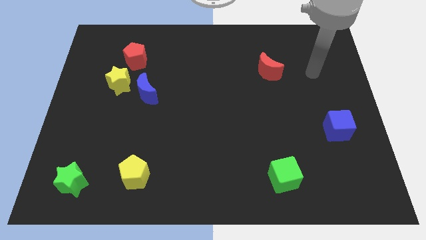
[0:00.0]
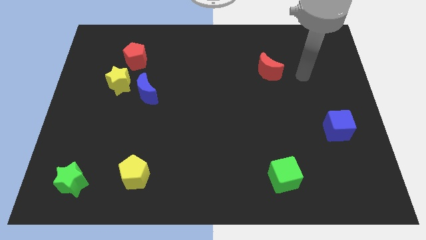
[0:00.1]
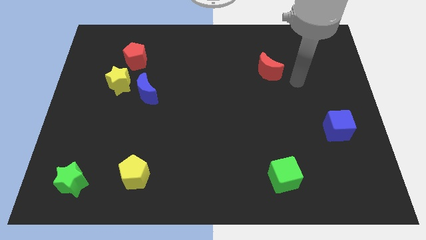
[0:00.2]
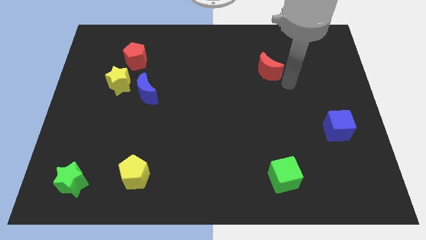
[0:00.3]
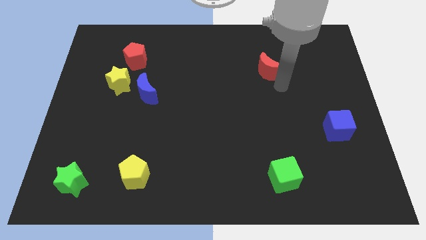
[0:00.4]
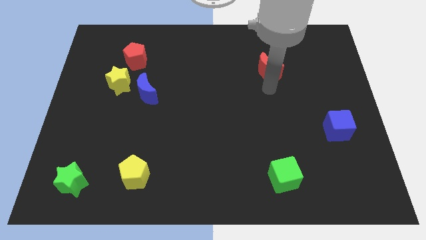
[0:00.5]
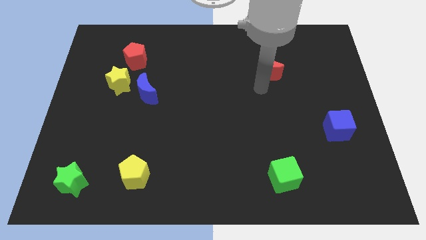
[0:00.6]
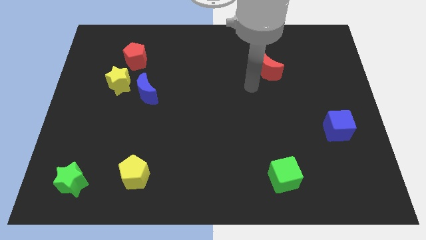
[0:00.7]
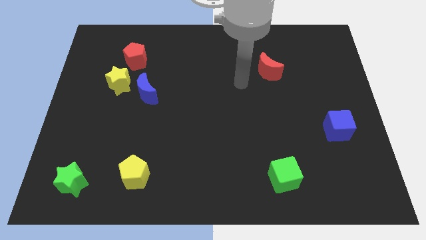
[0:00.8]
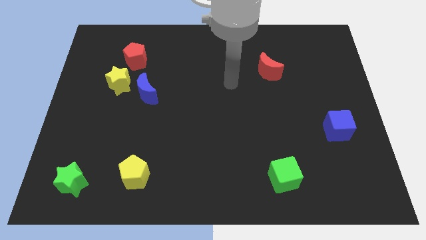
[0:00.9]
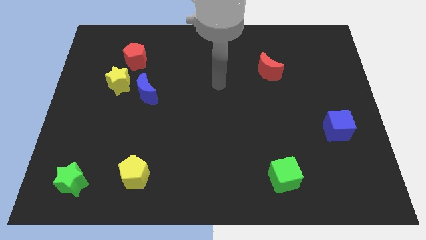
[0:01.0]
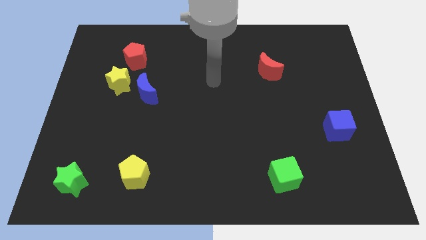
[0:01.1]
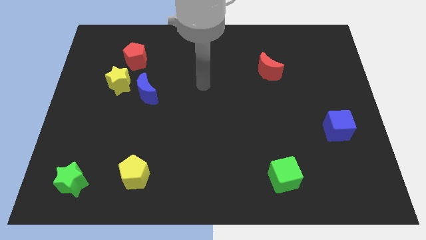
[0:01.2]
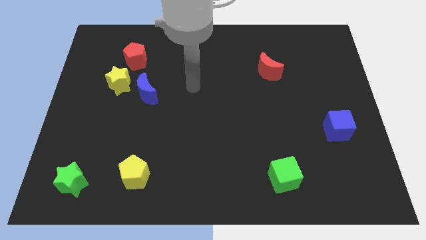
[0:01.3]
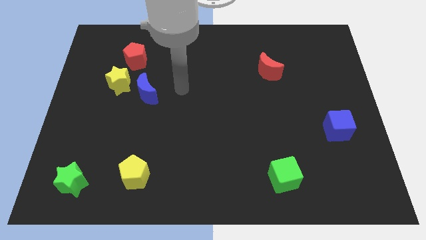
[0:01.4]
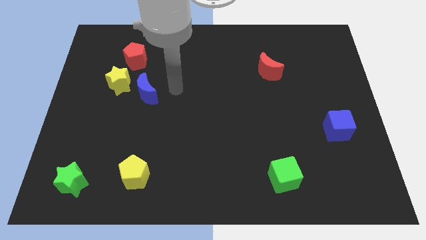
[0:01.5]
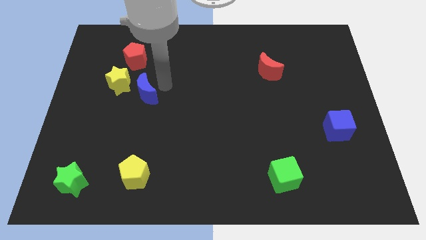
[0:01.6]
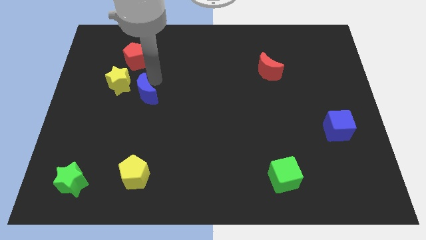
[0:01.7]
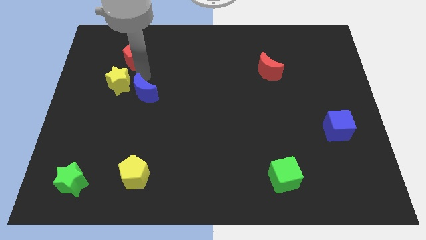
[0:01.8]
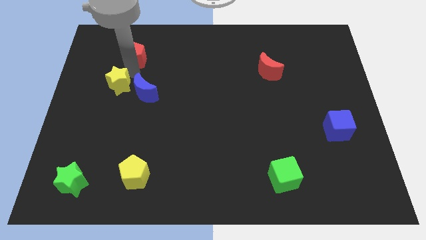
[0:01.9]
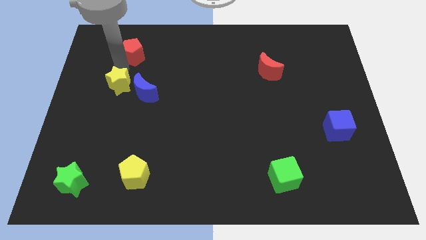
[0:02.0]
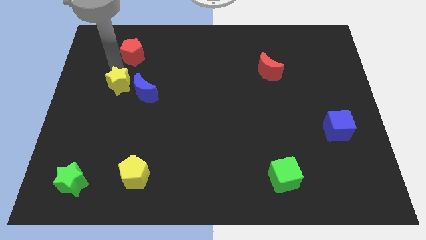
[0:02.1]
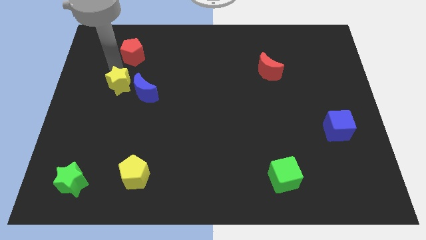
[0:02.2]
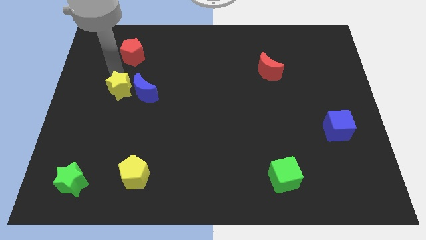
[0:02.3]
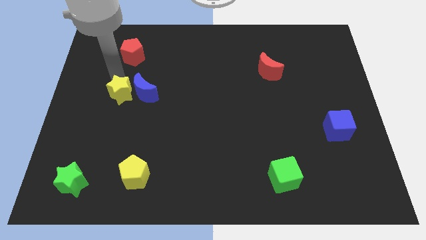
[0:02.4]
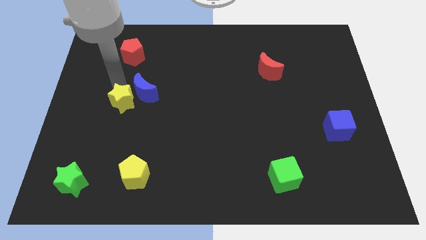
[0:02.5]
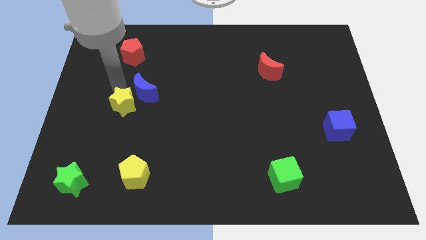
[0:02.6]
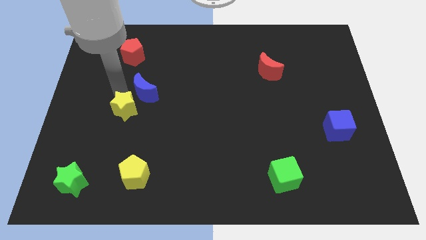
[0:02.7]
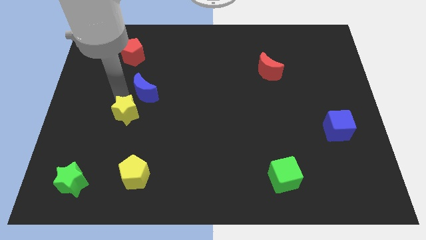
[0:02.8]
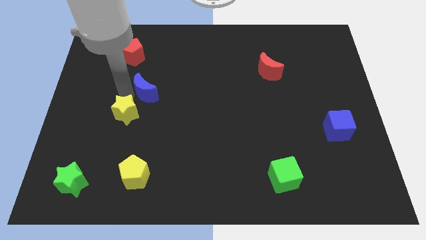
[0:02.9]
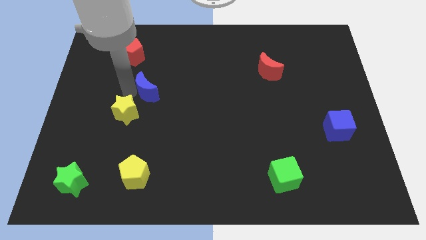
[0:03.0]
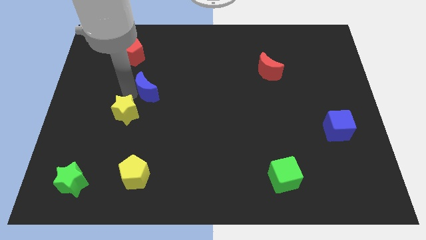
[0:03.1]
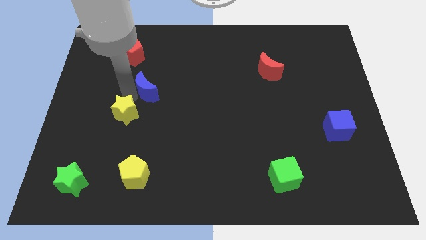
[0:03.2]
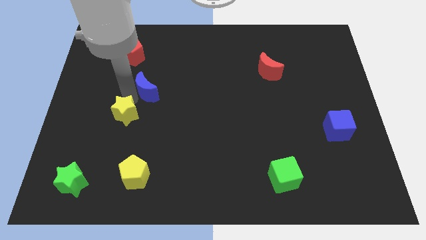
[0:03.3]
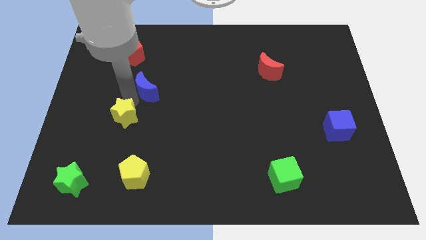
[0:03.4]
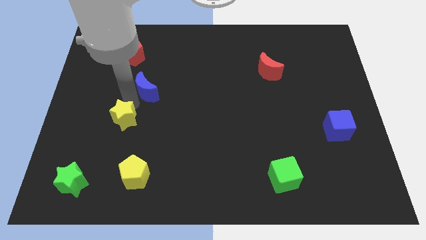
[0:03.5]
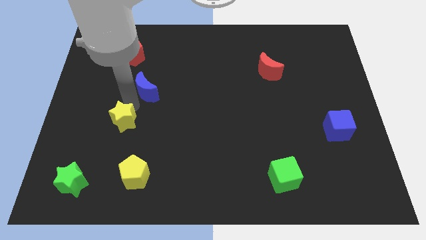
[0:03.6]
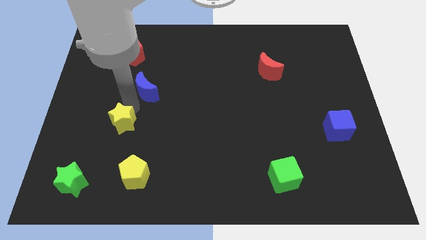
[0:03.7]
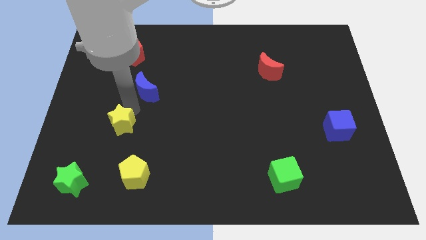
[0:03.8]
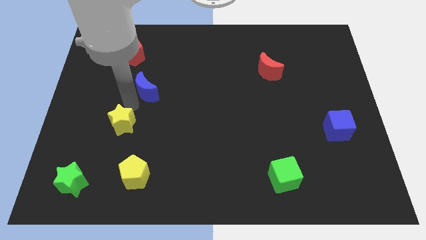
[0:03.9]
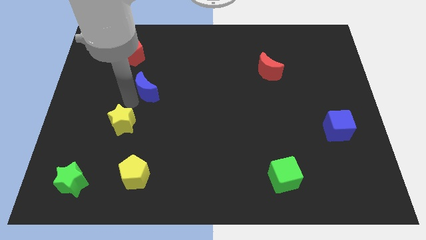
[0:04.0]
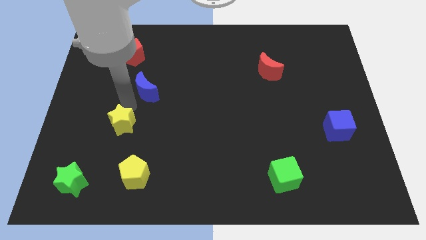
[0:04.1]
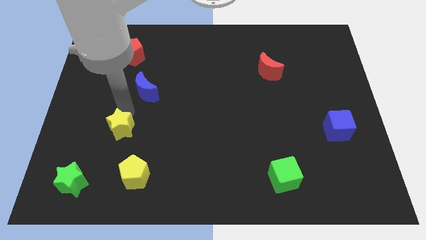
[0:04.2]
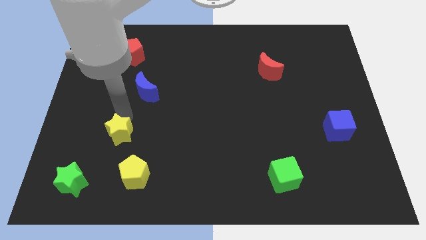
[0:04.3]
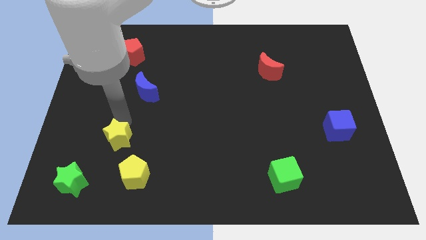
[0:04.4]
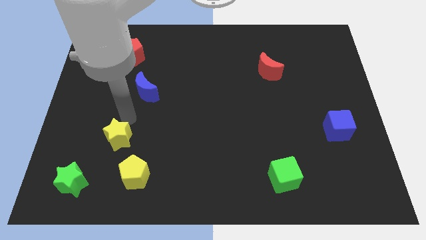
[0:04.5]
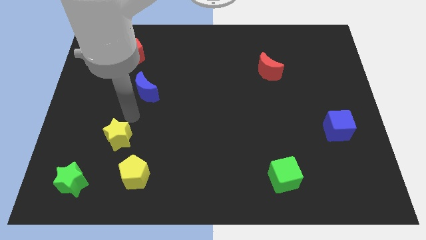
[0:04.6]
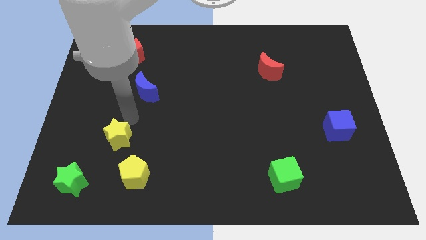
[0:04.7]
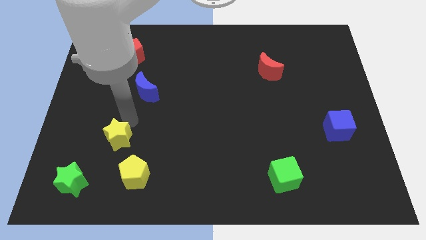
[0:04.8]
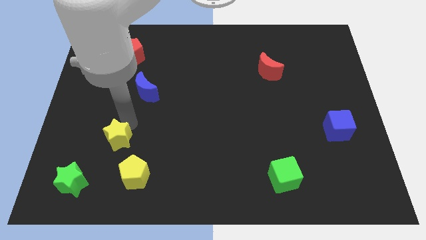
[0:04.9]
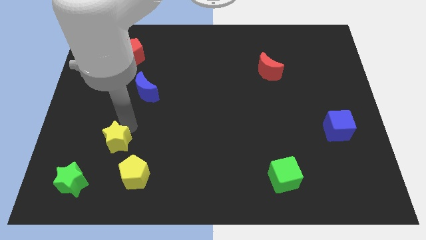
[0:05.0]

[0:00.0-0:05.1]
slide the yellow star diagonally up and to the right of the green star

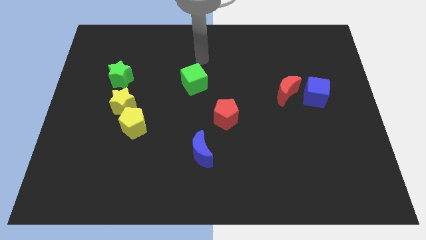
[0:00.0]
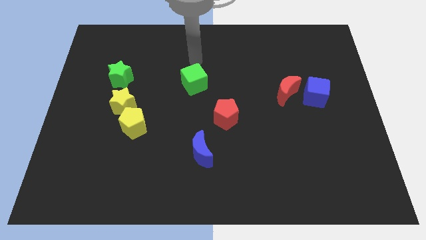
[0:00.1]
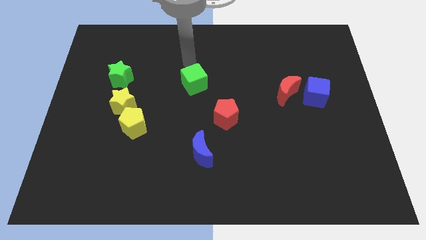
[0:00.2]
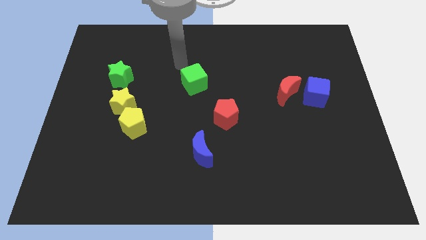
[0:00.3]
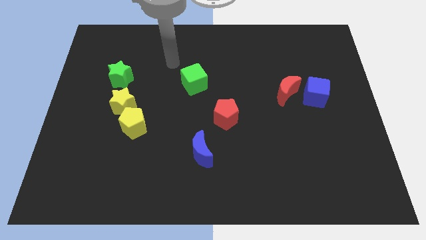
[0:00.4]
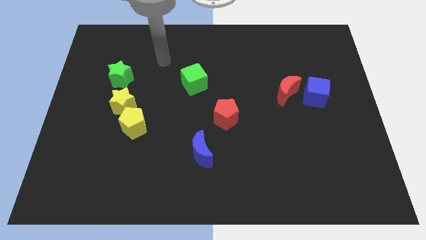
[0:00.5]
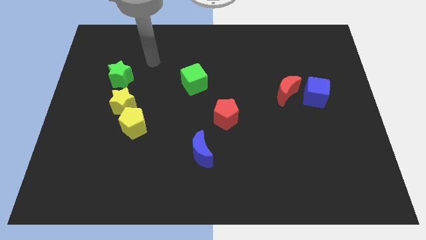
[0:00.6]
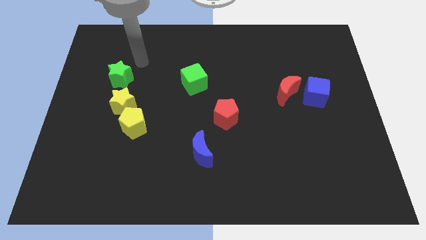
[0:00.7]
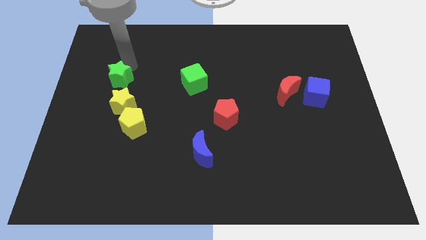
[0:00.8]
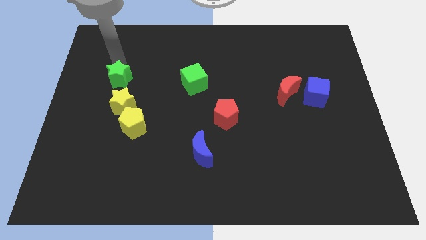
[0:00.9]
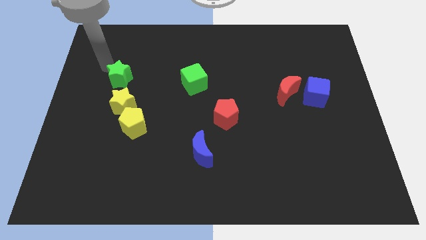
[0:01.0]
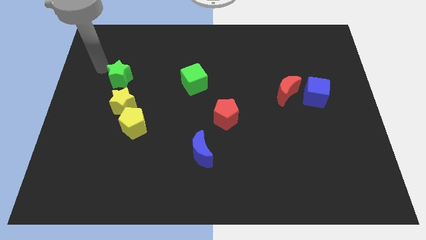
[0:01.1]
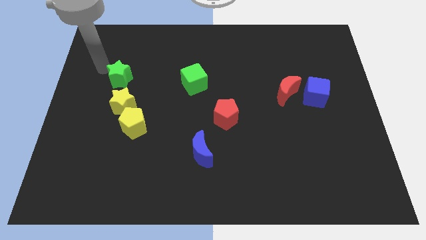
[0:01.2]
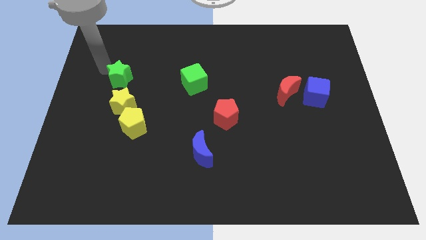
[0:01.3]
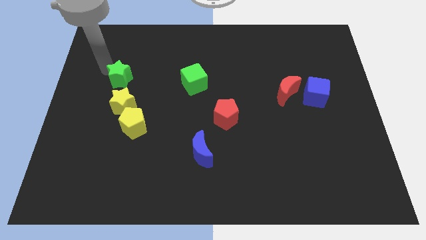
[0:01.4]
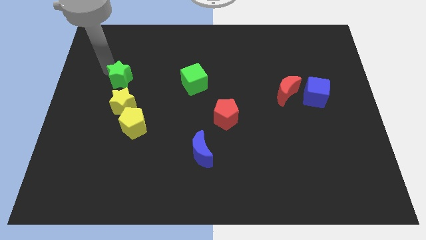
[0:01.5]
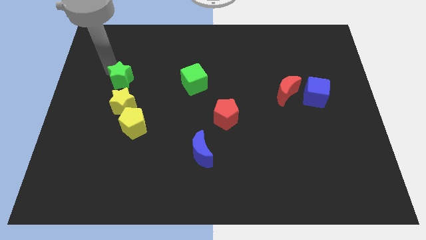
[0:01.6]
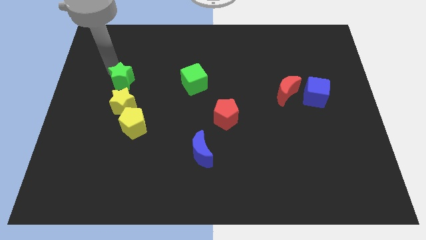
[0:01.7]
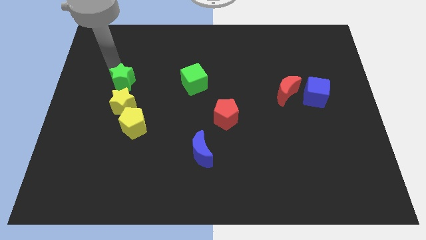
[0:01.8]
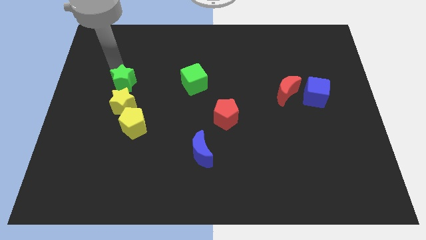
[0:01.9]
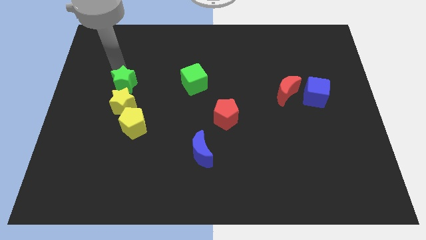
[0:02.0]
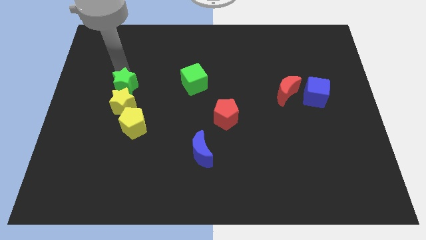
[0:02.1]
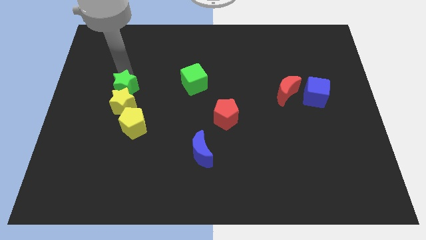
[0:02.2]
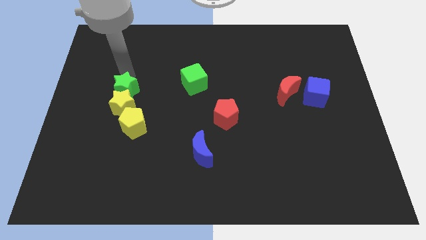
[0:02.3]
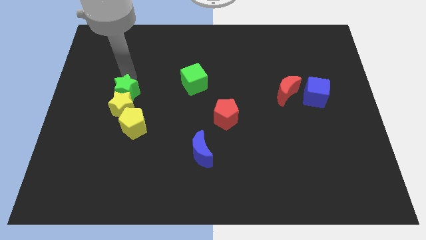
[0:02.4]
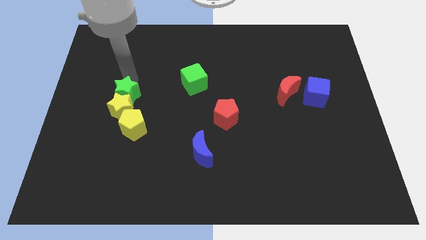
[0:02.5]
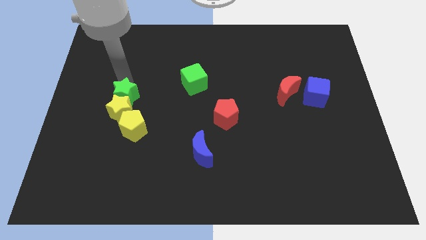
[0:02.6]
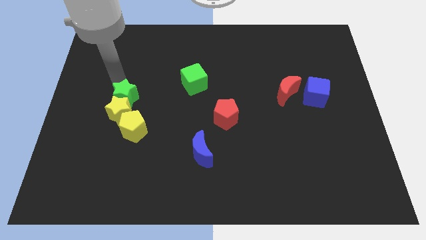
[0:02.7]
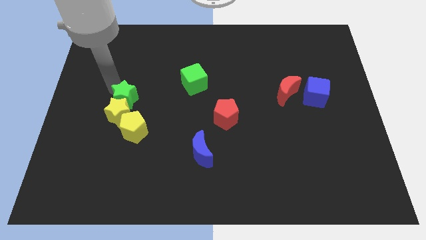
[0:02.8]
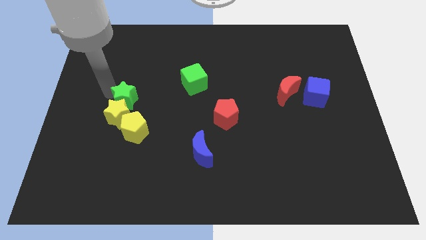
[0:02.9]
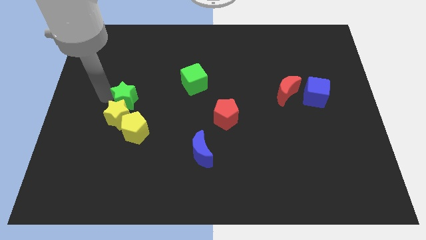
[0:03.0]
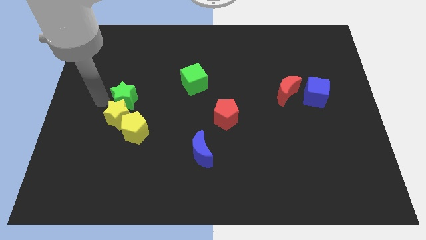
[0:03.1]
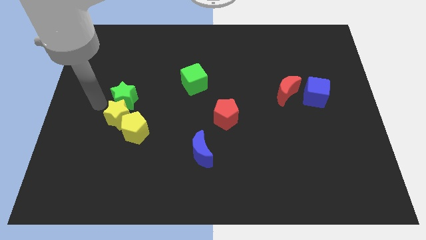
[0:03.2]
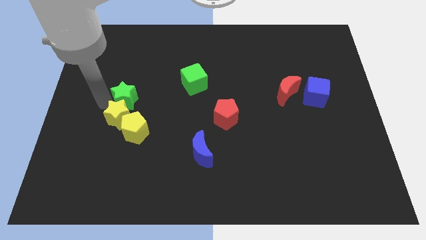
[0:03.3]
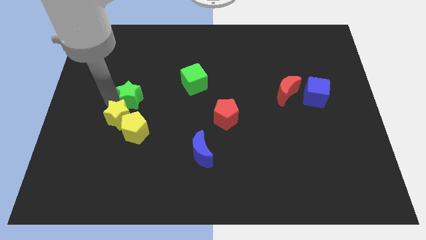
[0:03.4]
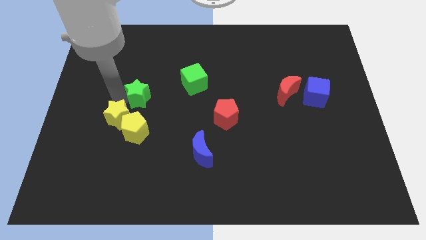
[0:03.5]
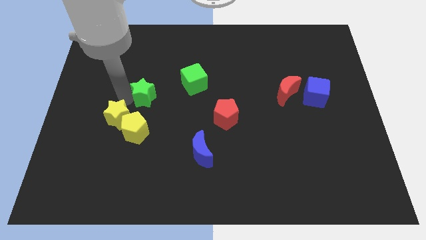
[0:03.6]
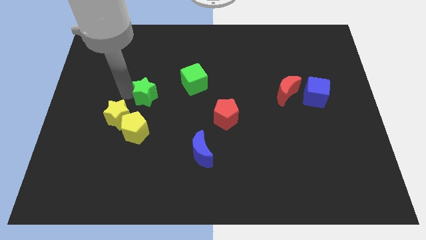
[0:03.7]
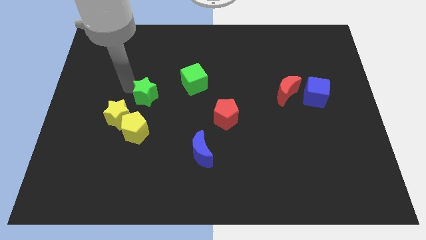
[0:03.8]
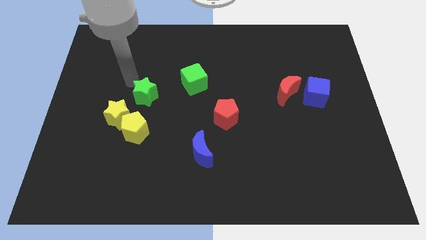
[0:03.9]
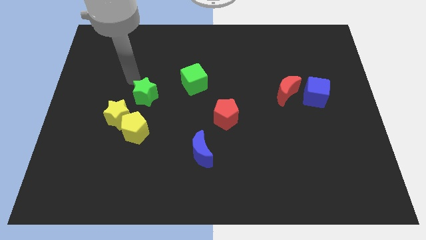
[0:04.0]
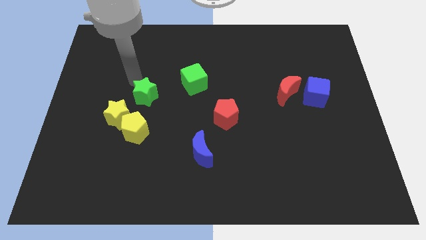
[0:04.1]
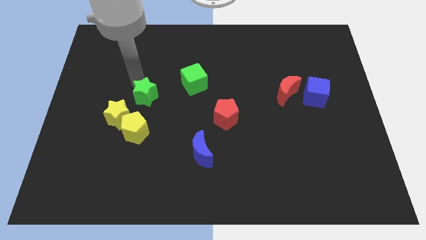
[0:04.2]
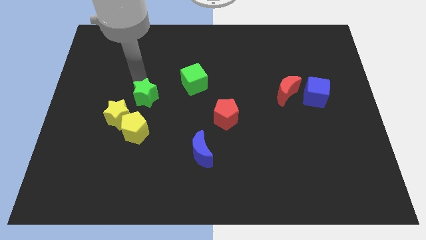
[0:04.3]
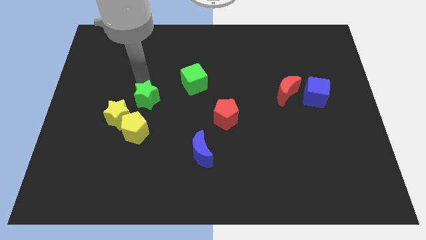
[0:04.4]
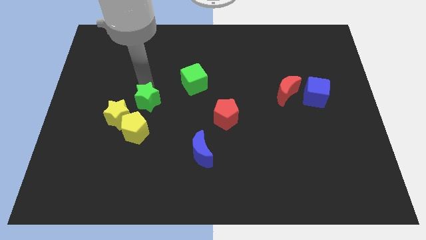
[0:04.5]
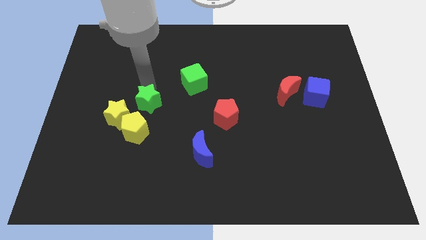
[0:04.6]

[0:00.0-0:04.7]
put the green star to the right of the yellow star
